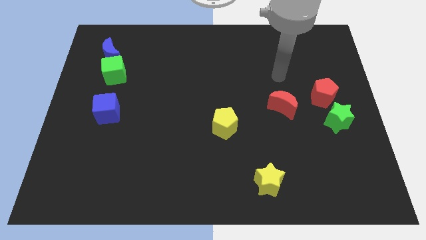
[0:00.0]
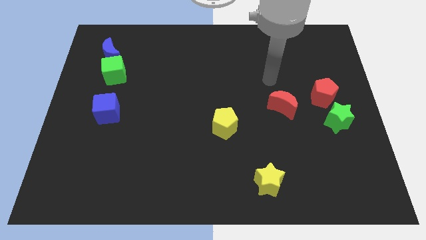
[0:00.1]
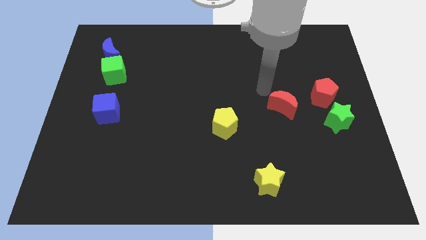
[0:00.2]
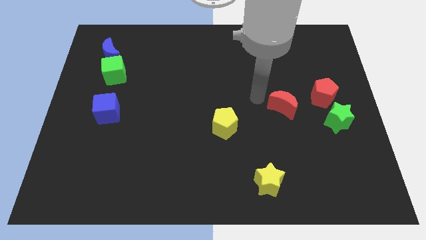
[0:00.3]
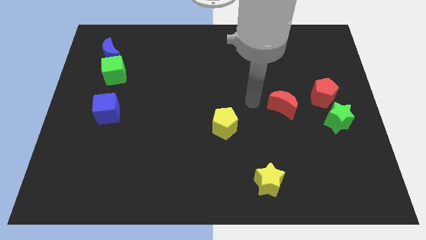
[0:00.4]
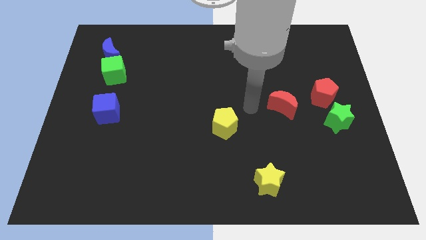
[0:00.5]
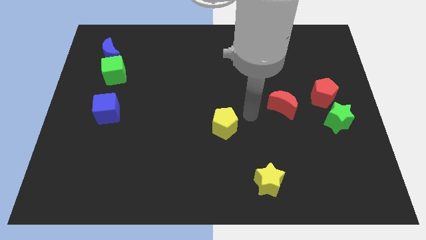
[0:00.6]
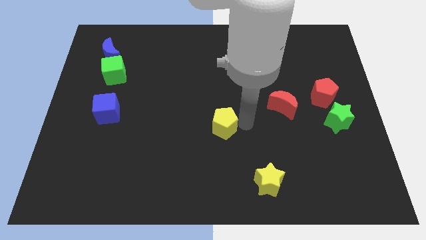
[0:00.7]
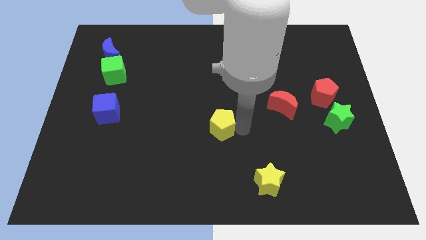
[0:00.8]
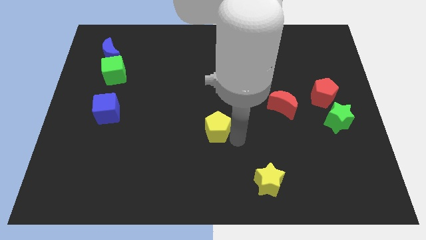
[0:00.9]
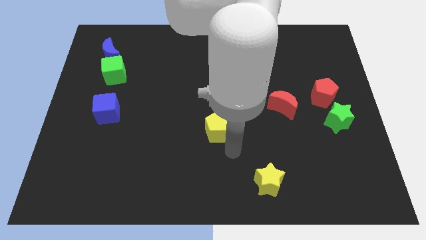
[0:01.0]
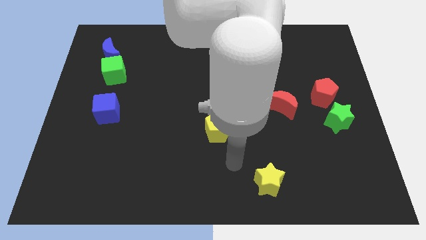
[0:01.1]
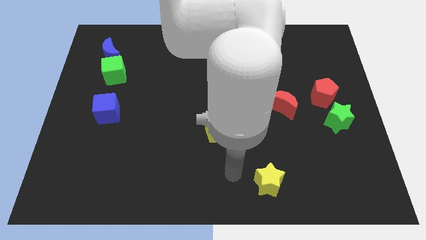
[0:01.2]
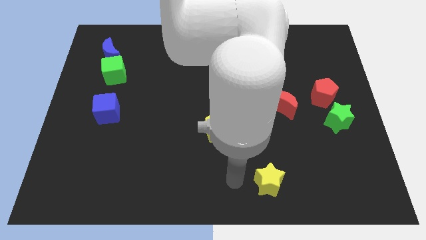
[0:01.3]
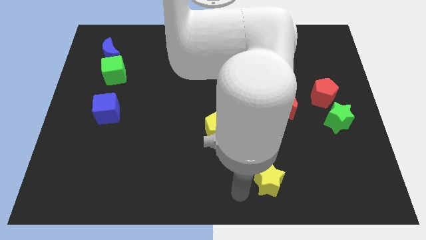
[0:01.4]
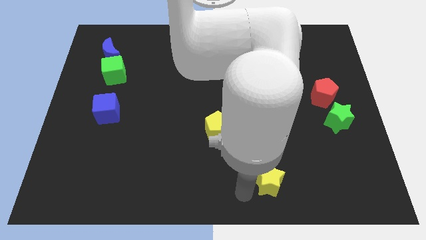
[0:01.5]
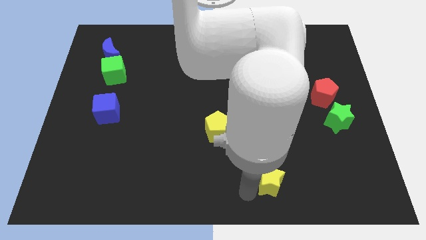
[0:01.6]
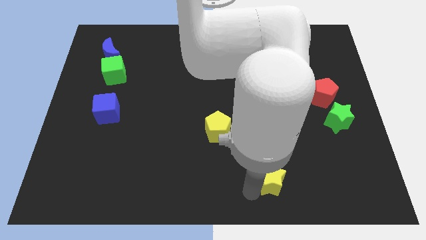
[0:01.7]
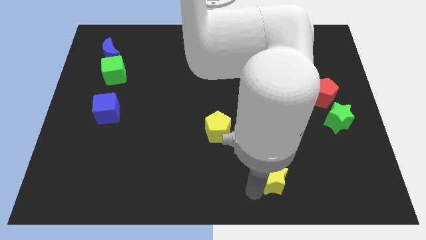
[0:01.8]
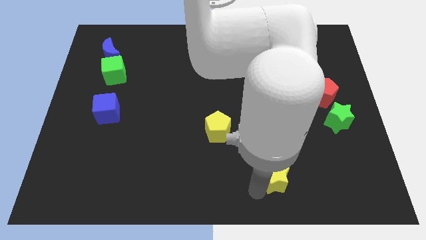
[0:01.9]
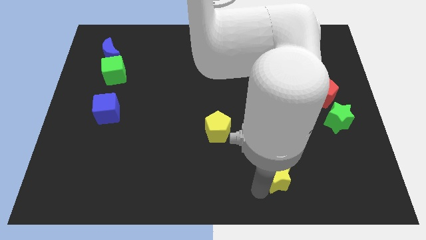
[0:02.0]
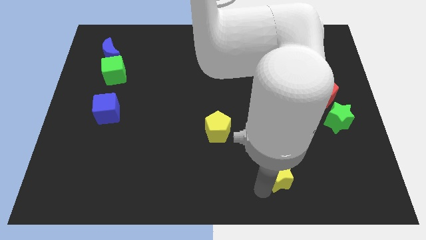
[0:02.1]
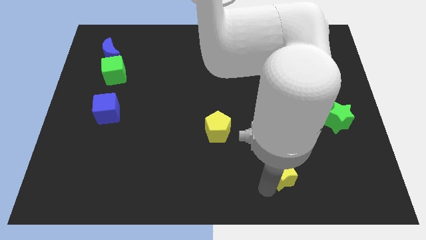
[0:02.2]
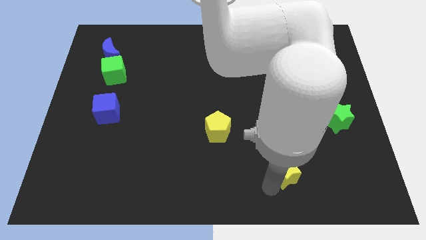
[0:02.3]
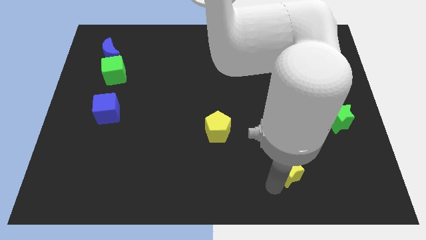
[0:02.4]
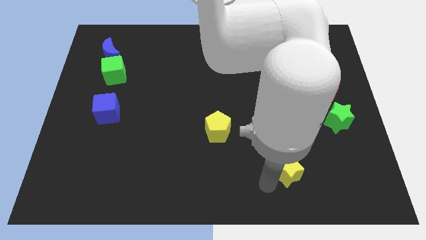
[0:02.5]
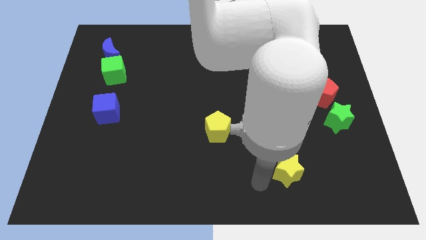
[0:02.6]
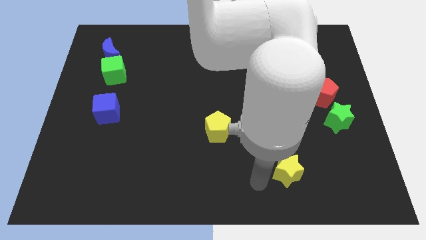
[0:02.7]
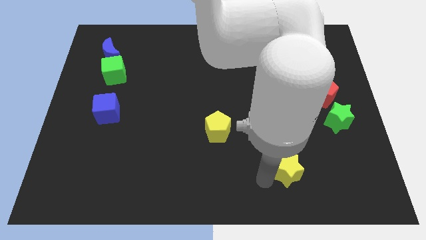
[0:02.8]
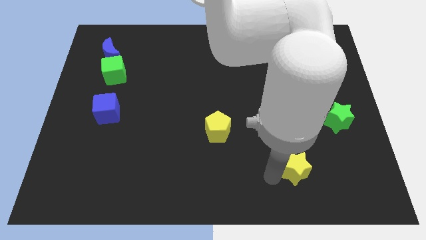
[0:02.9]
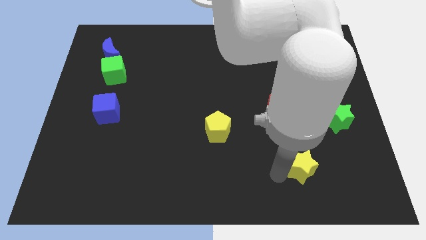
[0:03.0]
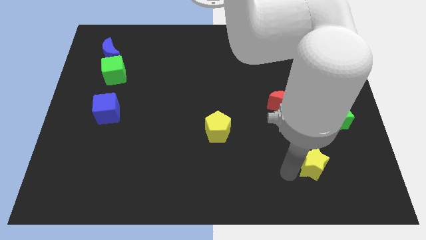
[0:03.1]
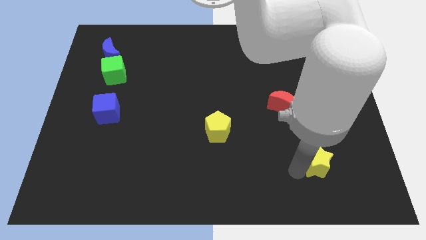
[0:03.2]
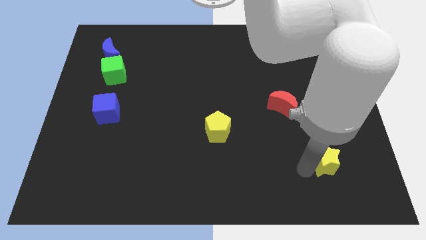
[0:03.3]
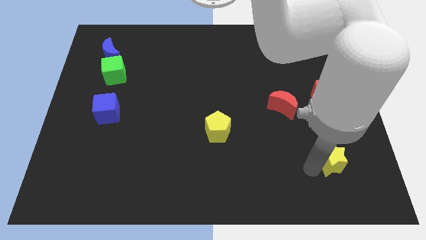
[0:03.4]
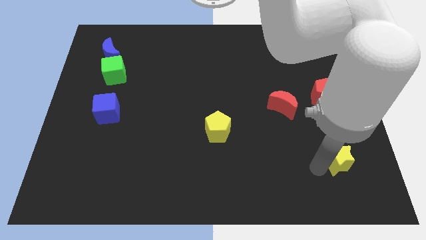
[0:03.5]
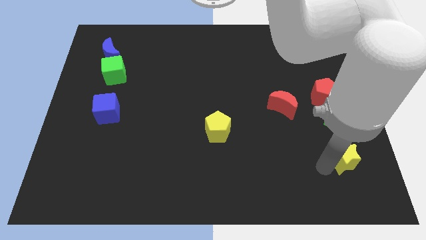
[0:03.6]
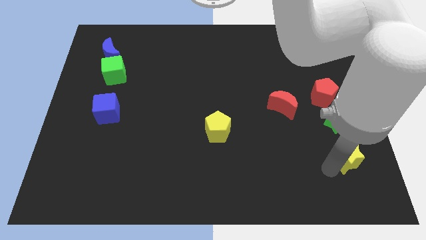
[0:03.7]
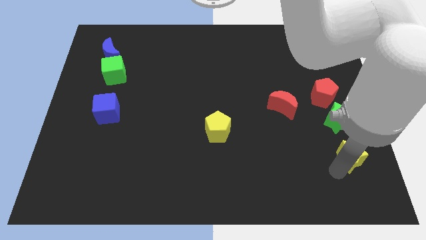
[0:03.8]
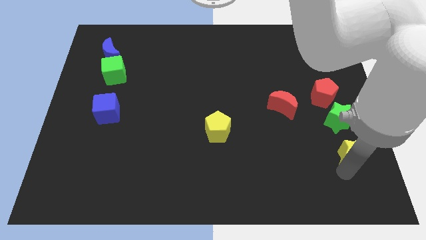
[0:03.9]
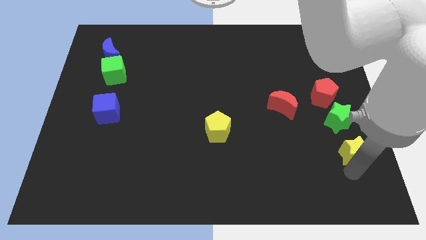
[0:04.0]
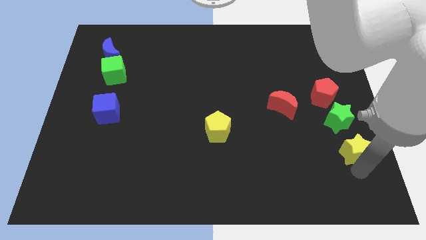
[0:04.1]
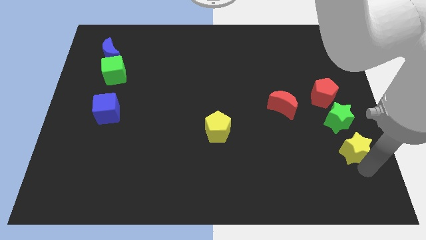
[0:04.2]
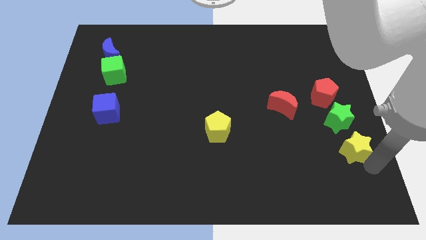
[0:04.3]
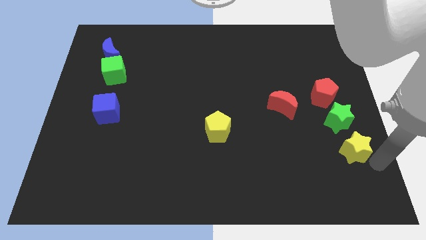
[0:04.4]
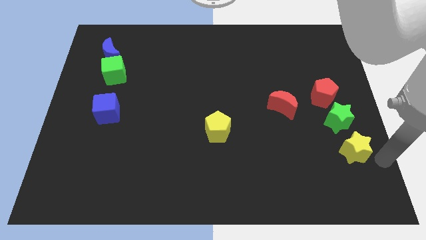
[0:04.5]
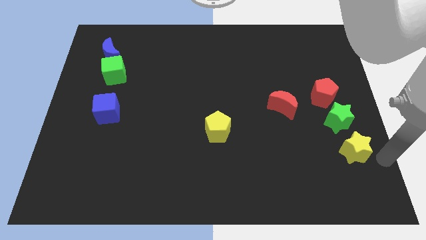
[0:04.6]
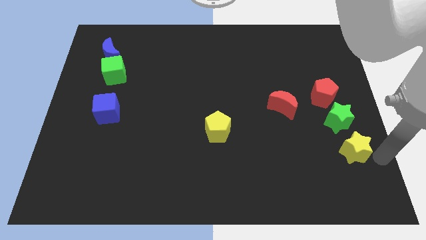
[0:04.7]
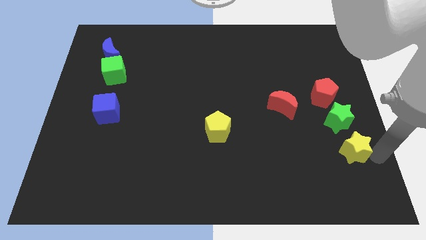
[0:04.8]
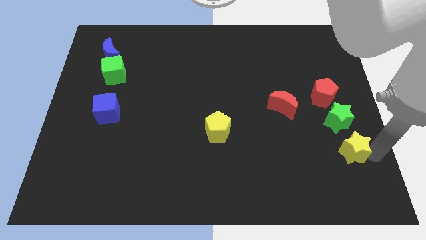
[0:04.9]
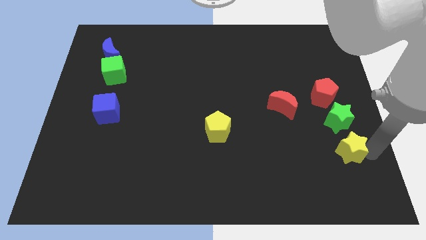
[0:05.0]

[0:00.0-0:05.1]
push the yellow star below the red pentagon

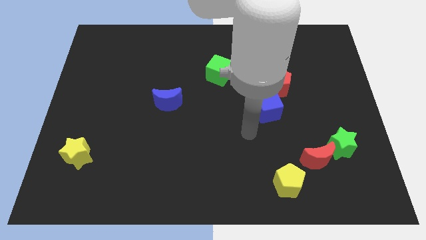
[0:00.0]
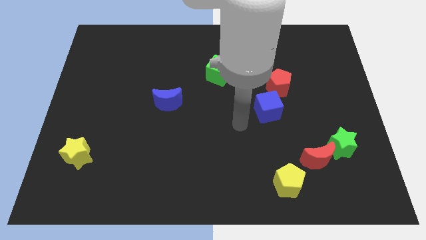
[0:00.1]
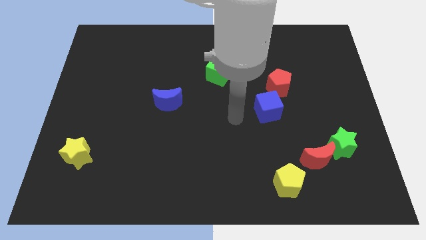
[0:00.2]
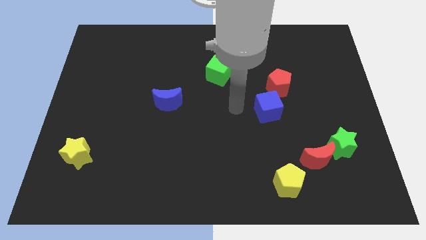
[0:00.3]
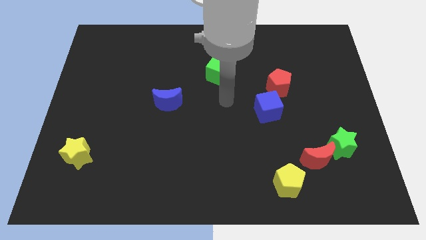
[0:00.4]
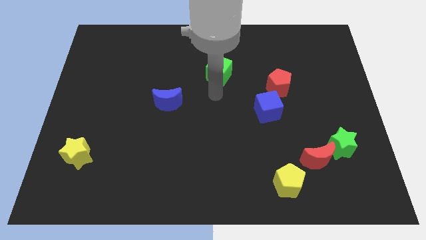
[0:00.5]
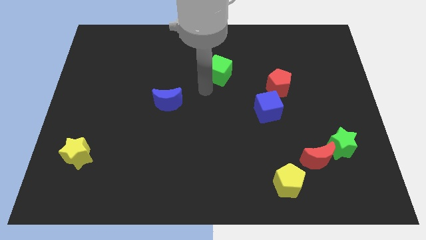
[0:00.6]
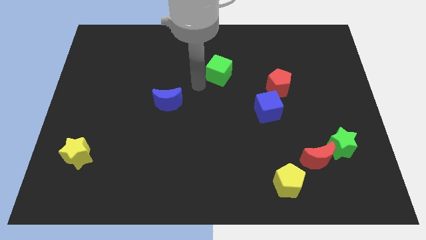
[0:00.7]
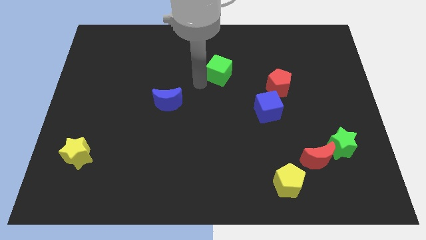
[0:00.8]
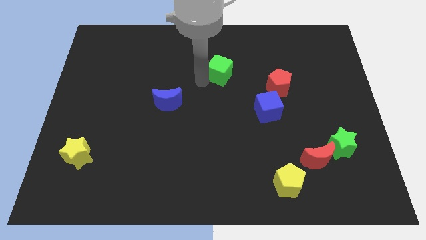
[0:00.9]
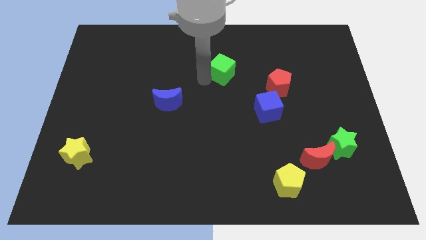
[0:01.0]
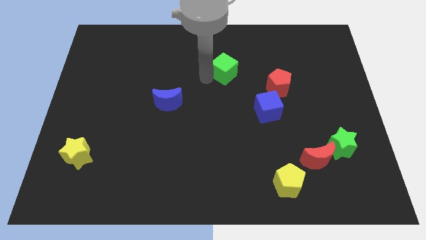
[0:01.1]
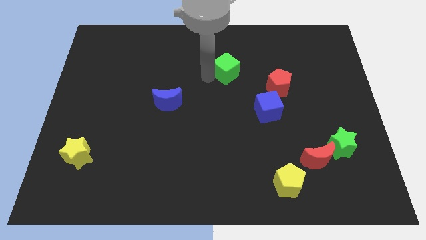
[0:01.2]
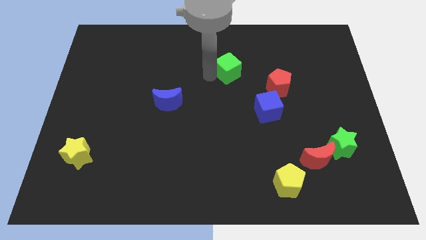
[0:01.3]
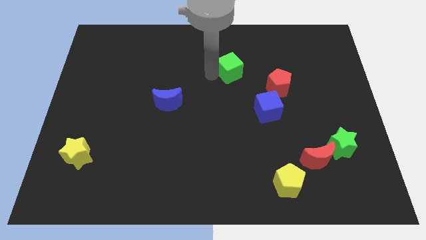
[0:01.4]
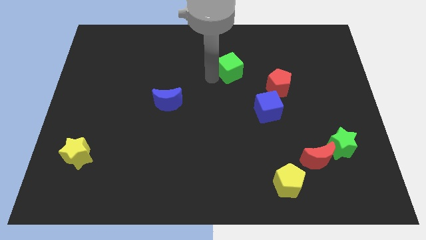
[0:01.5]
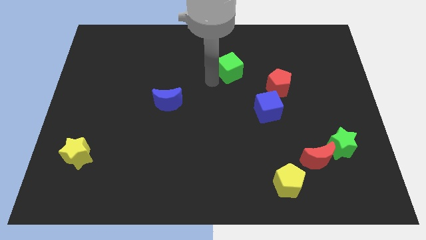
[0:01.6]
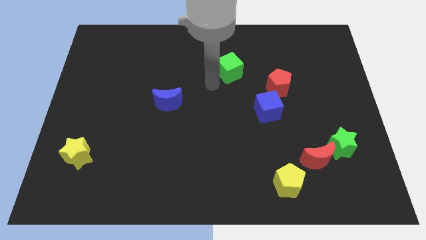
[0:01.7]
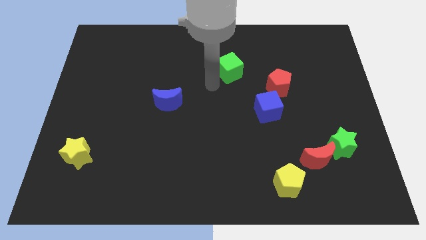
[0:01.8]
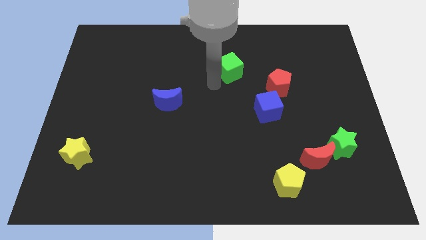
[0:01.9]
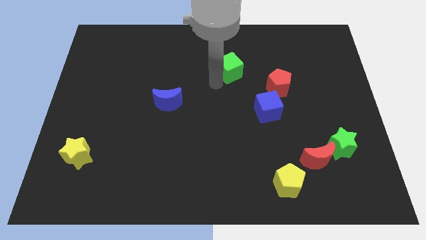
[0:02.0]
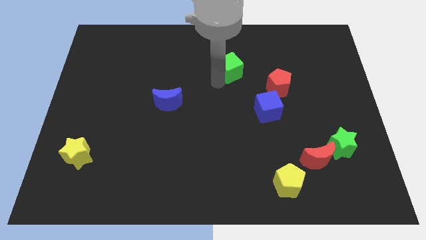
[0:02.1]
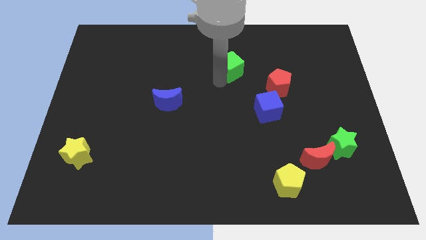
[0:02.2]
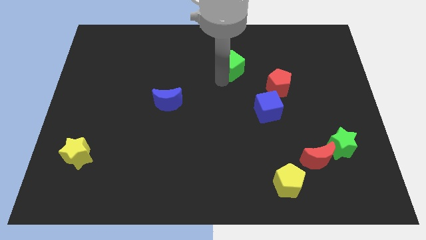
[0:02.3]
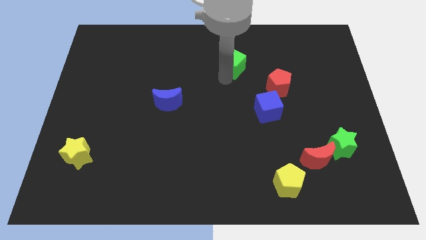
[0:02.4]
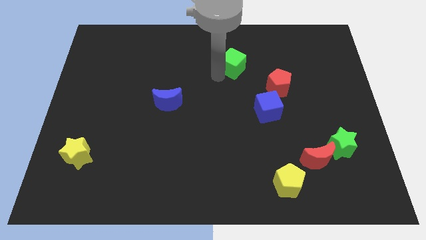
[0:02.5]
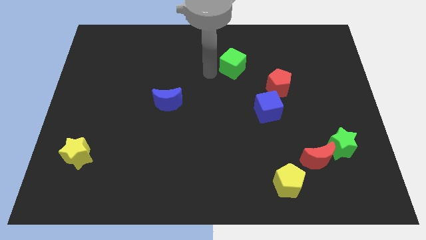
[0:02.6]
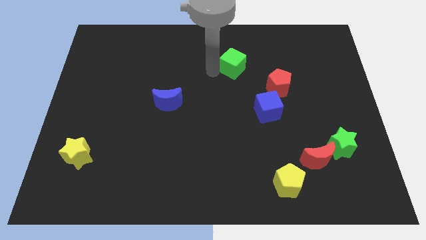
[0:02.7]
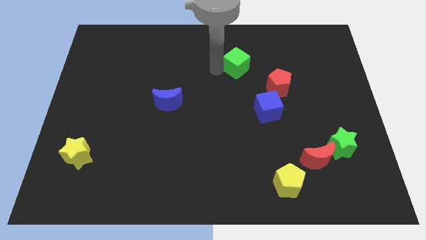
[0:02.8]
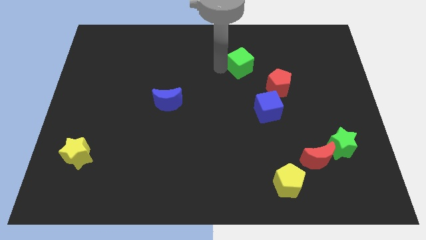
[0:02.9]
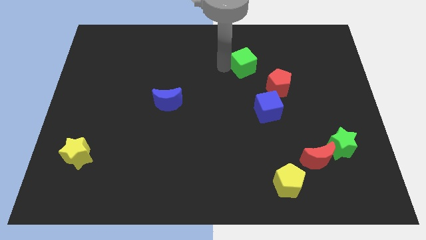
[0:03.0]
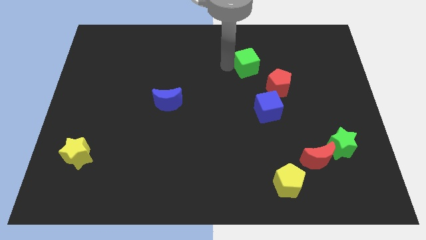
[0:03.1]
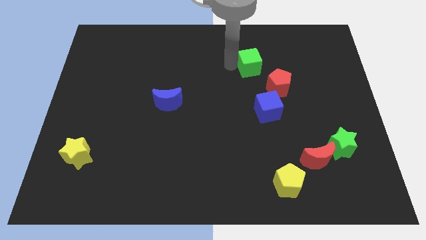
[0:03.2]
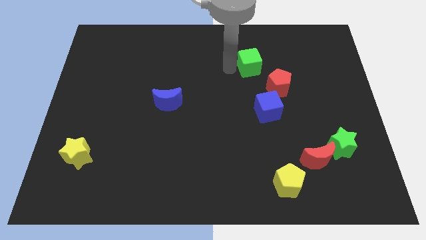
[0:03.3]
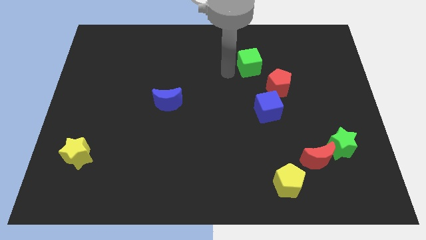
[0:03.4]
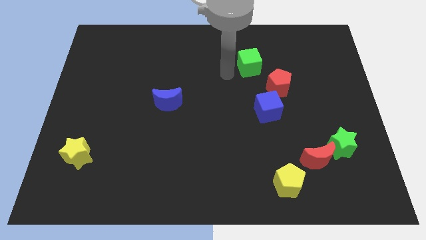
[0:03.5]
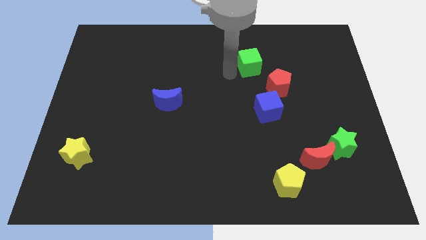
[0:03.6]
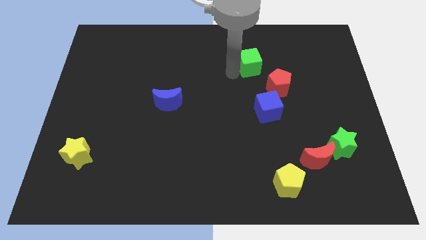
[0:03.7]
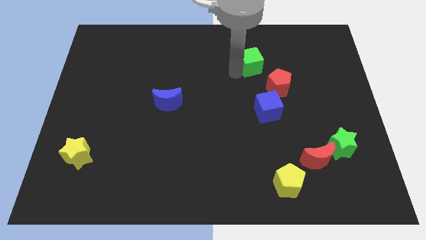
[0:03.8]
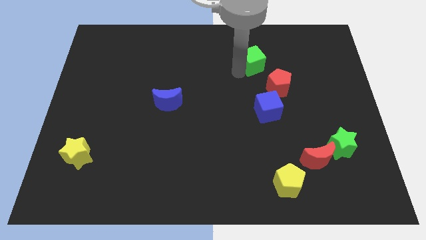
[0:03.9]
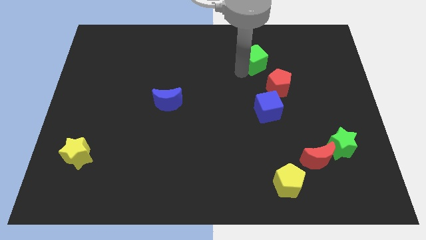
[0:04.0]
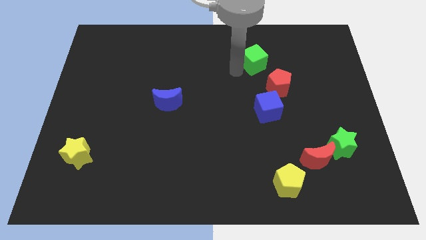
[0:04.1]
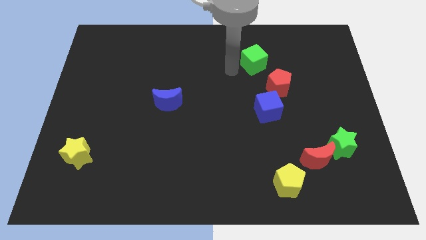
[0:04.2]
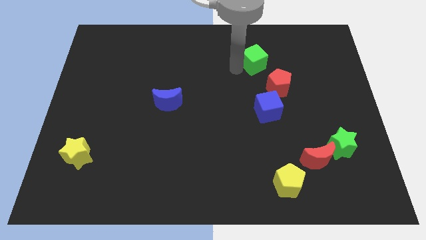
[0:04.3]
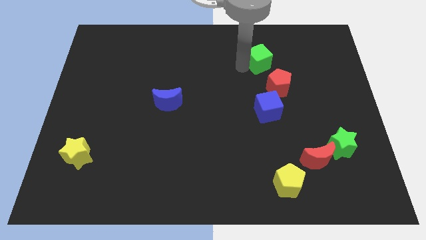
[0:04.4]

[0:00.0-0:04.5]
move the green cube to the top side of the red pentagon
